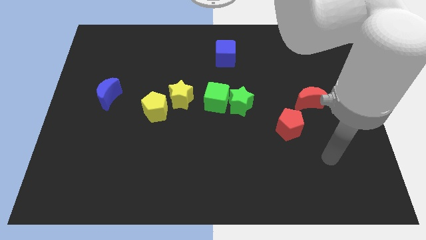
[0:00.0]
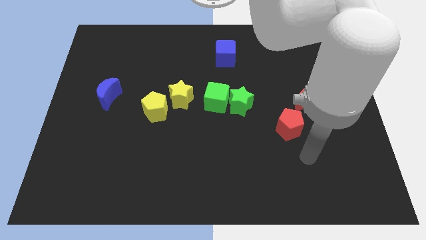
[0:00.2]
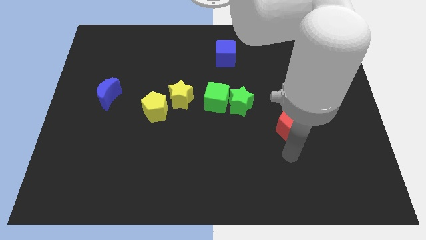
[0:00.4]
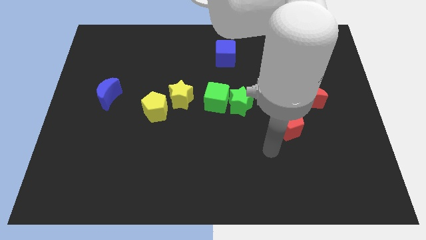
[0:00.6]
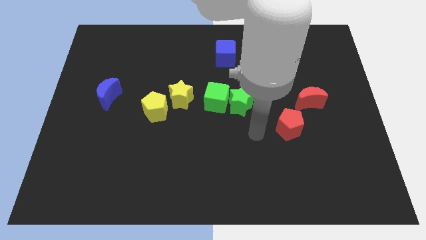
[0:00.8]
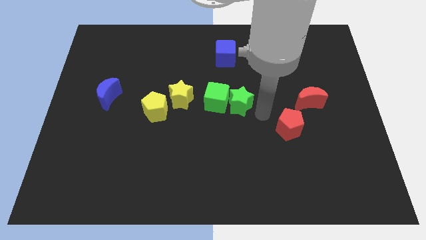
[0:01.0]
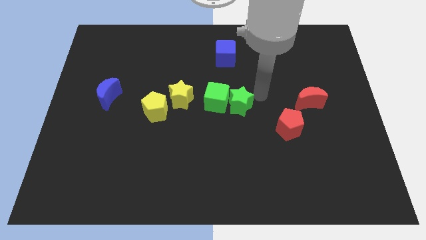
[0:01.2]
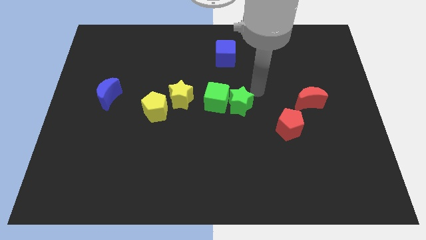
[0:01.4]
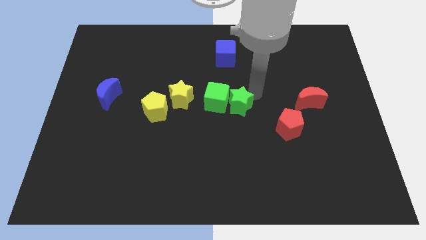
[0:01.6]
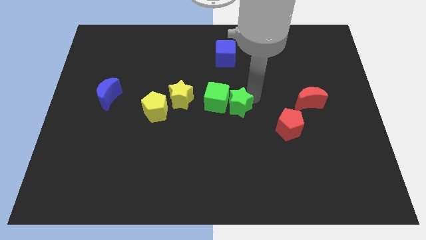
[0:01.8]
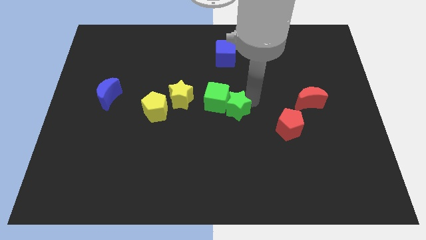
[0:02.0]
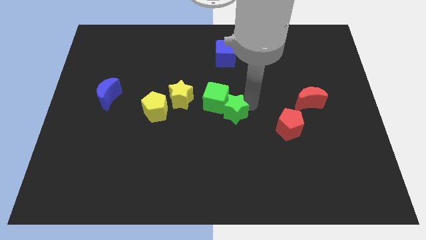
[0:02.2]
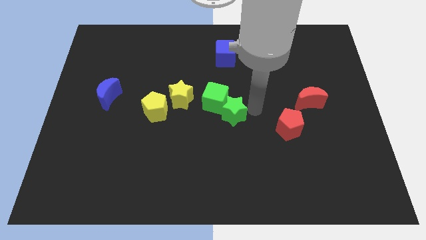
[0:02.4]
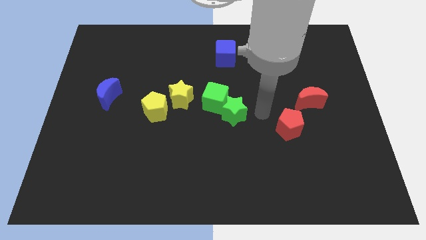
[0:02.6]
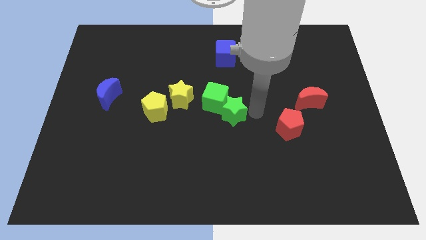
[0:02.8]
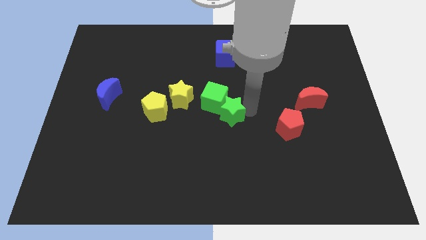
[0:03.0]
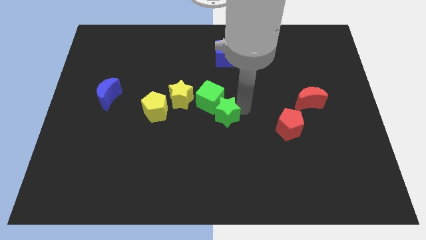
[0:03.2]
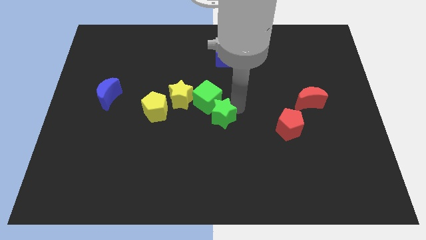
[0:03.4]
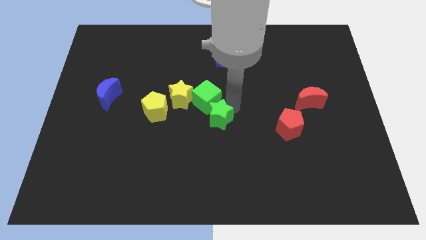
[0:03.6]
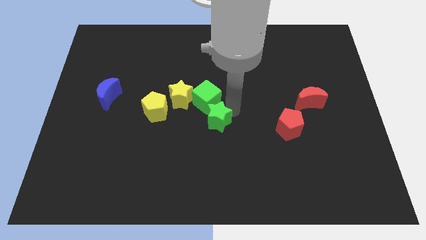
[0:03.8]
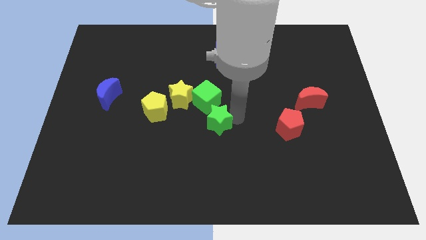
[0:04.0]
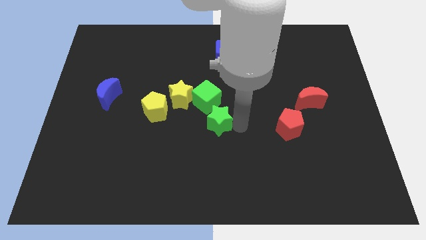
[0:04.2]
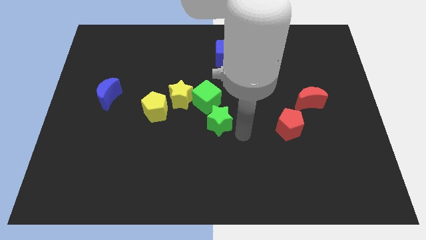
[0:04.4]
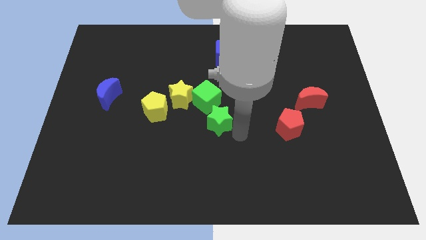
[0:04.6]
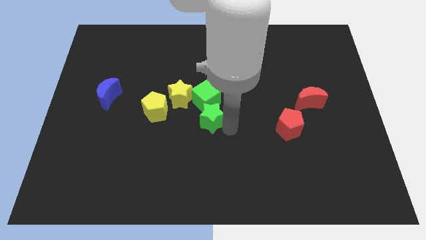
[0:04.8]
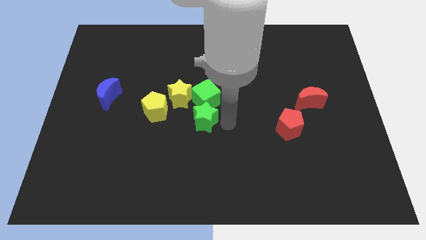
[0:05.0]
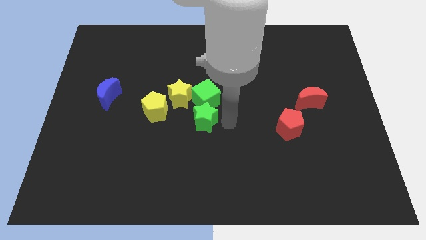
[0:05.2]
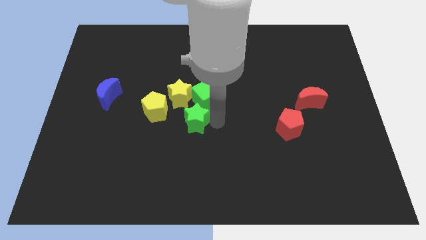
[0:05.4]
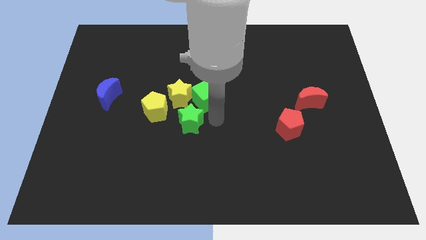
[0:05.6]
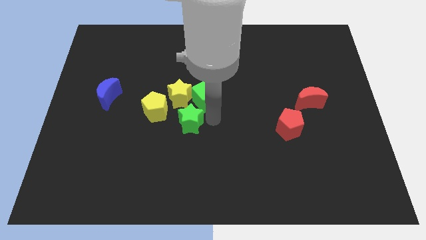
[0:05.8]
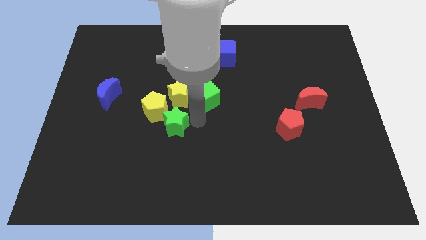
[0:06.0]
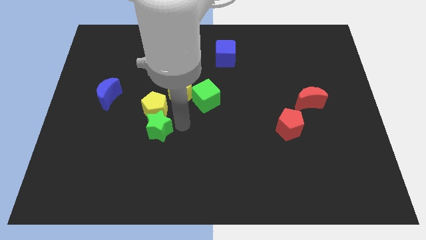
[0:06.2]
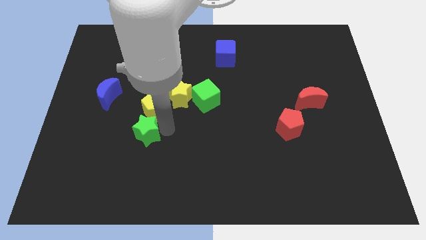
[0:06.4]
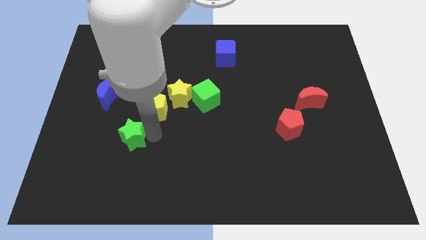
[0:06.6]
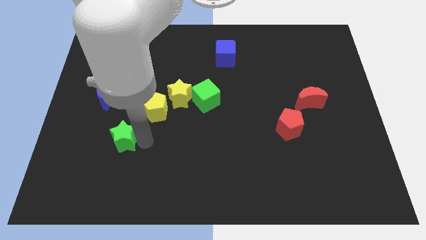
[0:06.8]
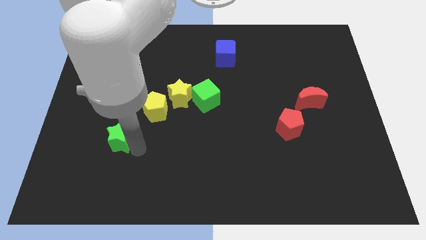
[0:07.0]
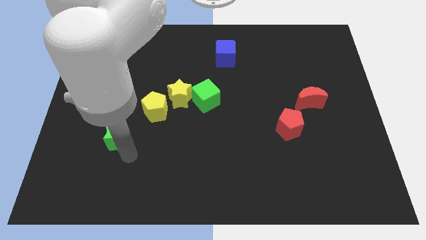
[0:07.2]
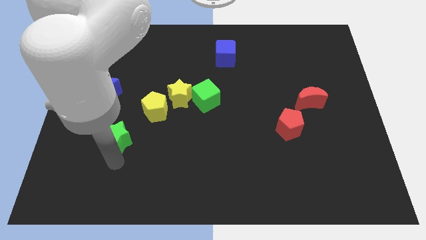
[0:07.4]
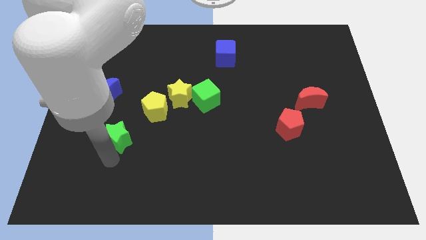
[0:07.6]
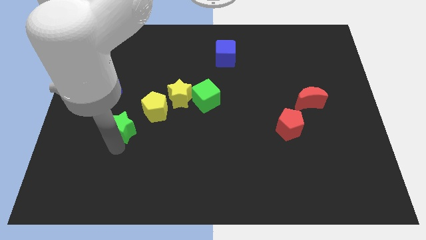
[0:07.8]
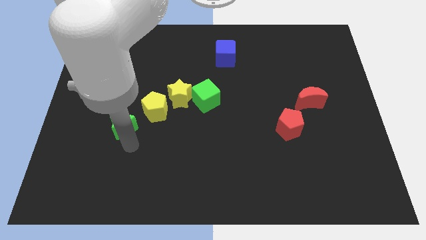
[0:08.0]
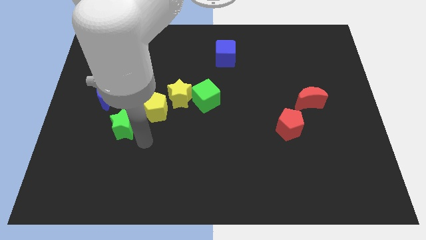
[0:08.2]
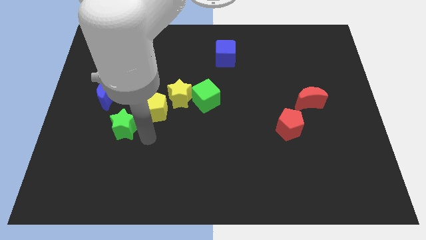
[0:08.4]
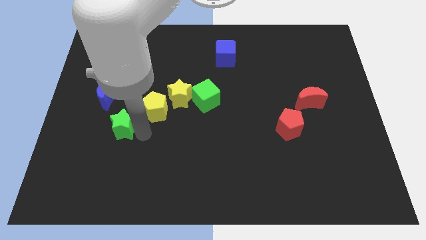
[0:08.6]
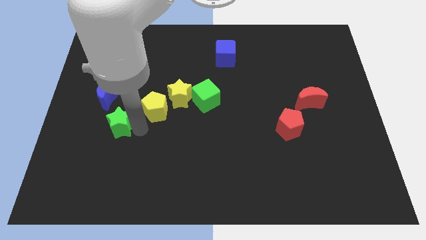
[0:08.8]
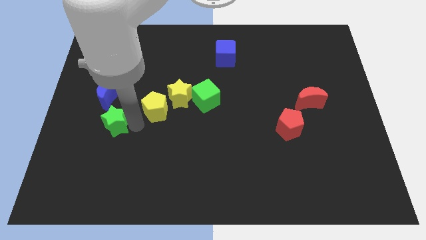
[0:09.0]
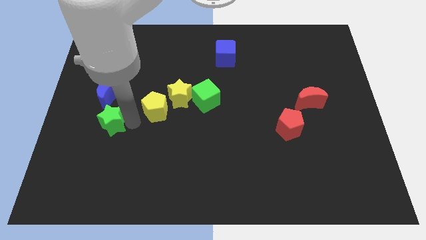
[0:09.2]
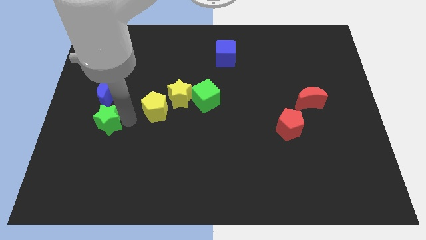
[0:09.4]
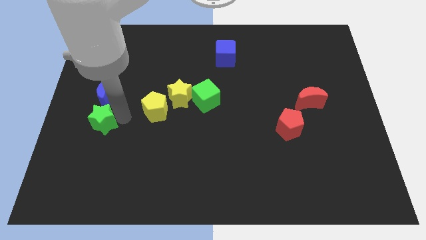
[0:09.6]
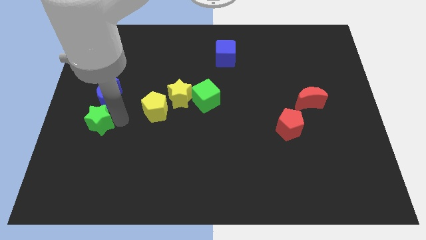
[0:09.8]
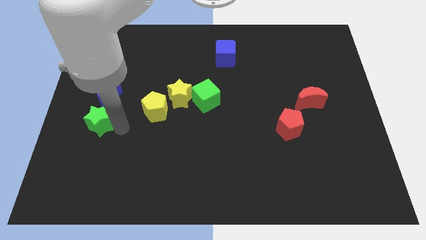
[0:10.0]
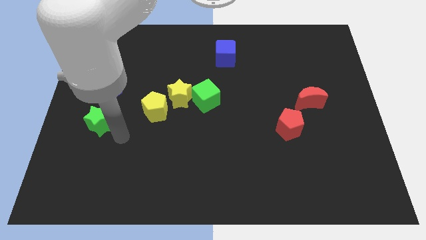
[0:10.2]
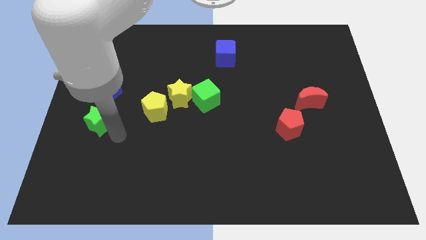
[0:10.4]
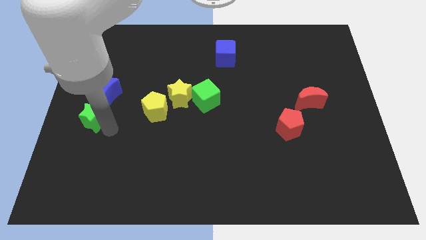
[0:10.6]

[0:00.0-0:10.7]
move the green star to the left side

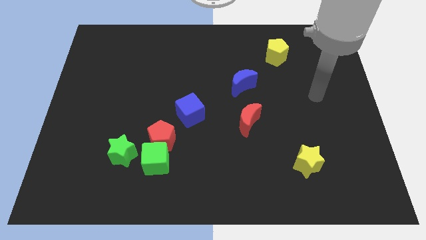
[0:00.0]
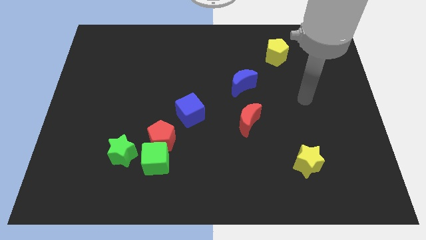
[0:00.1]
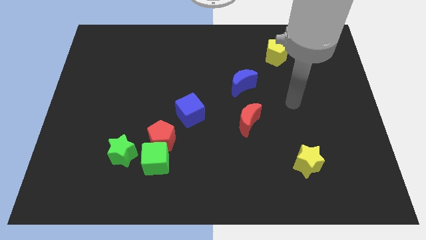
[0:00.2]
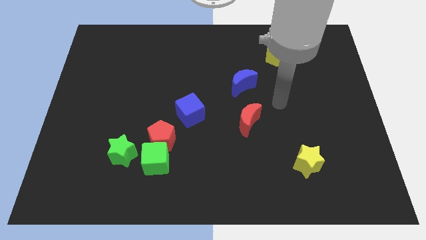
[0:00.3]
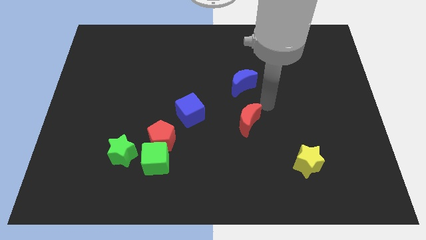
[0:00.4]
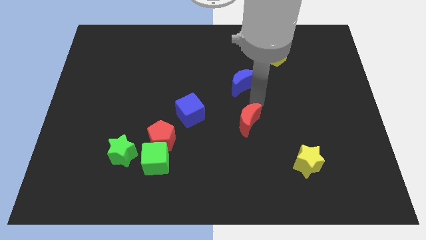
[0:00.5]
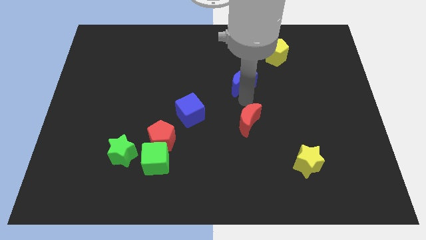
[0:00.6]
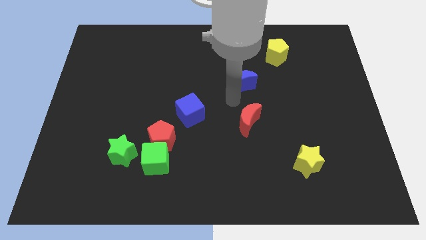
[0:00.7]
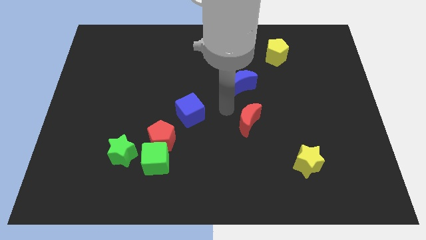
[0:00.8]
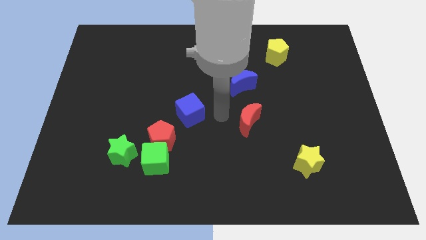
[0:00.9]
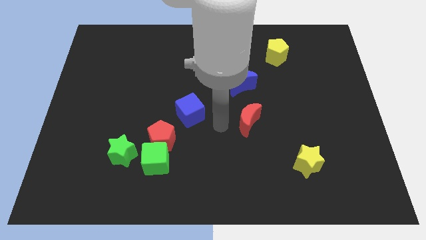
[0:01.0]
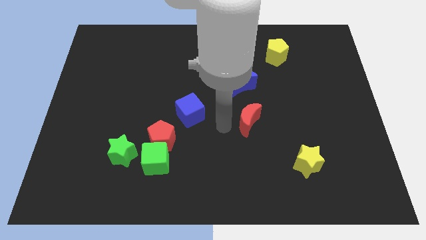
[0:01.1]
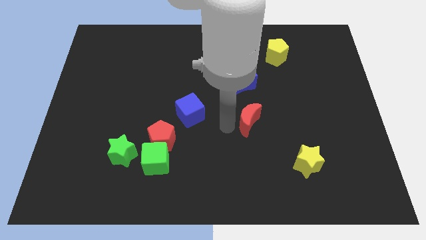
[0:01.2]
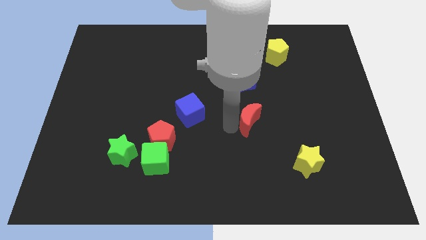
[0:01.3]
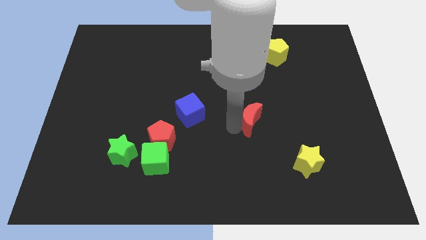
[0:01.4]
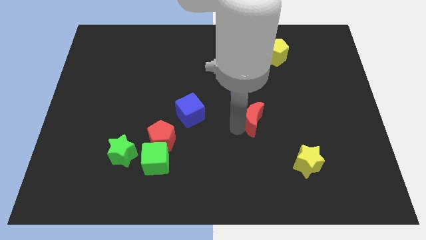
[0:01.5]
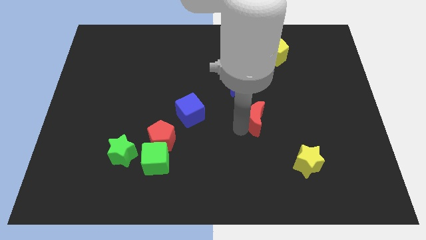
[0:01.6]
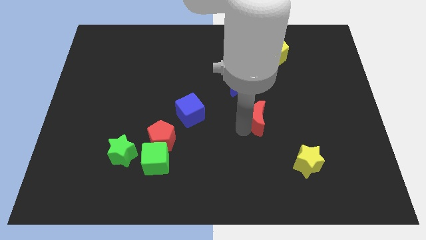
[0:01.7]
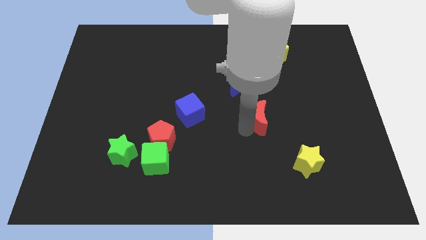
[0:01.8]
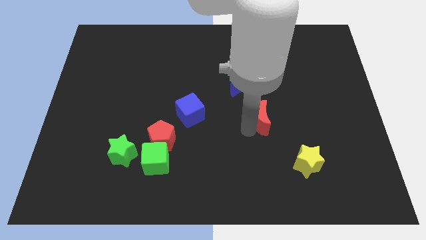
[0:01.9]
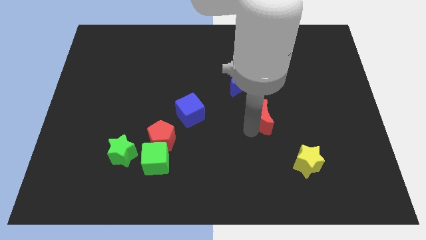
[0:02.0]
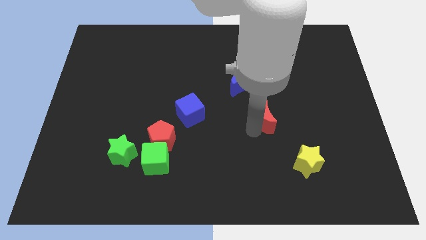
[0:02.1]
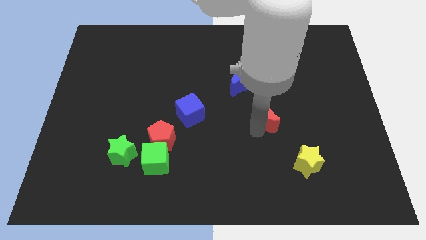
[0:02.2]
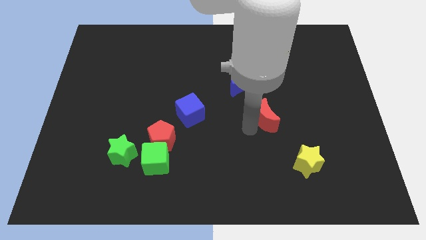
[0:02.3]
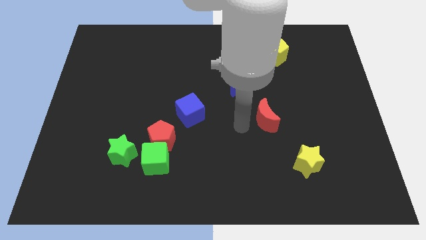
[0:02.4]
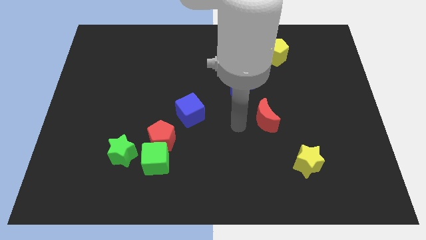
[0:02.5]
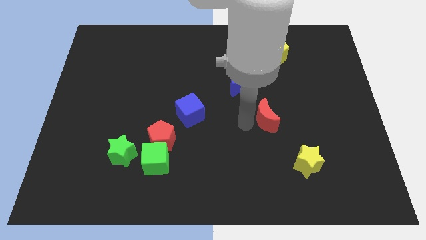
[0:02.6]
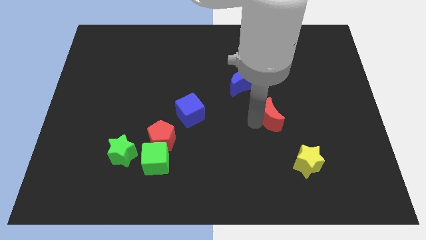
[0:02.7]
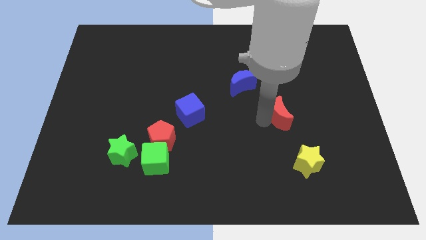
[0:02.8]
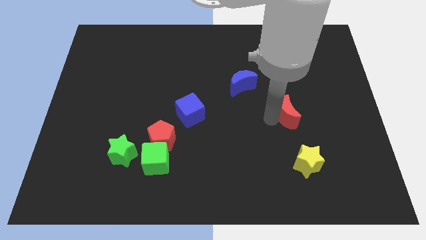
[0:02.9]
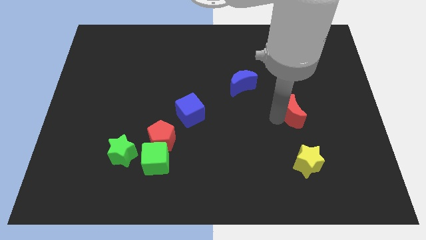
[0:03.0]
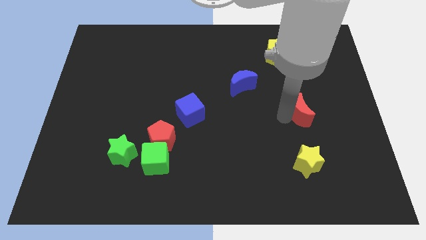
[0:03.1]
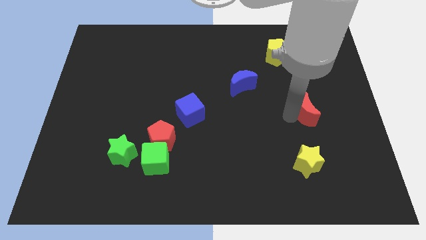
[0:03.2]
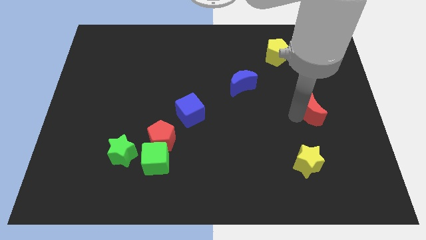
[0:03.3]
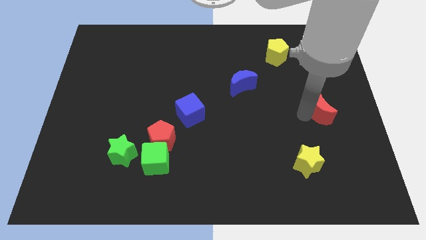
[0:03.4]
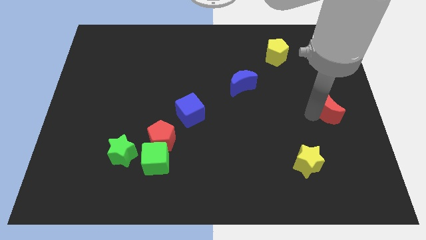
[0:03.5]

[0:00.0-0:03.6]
push the red moon to the right side
